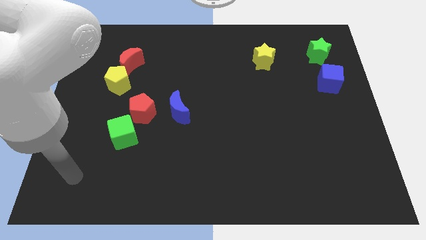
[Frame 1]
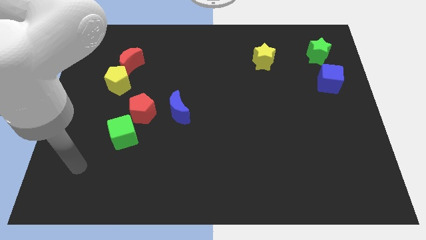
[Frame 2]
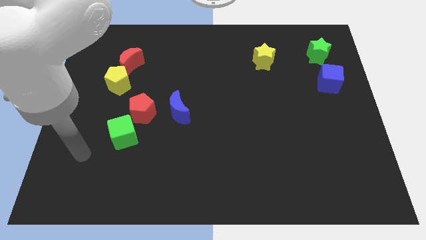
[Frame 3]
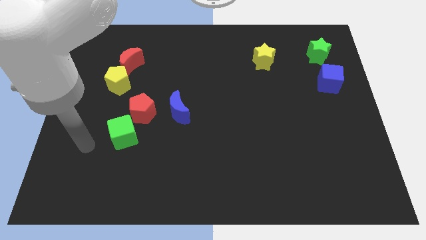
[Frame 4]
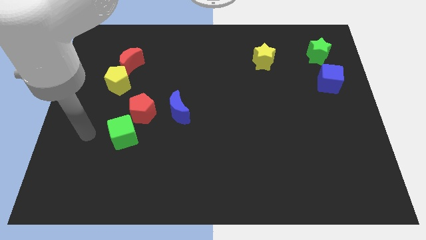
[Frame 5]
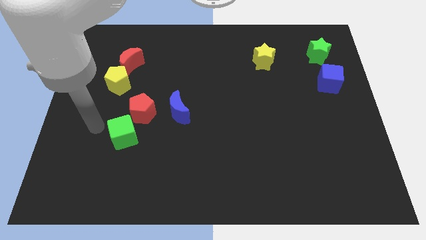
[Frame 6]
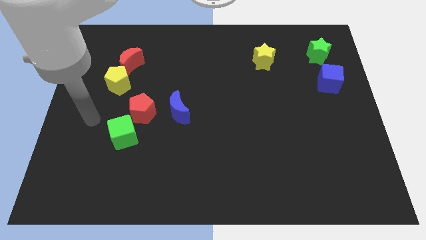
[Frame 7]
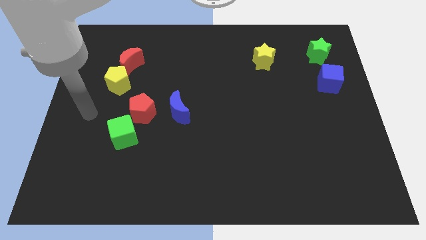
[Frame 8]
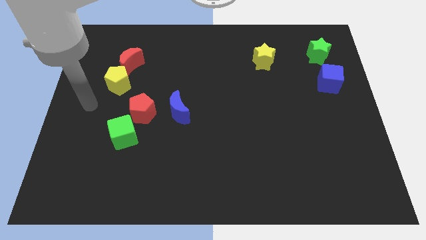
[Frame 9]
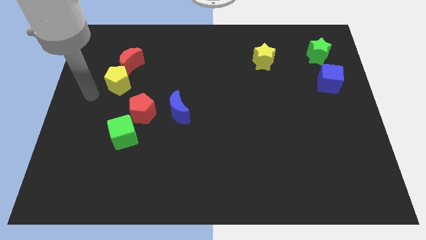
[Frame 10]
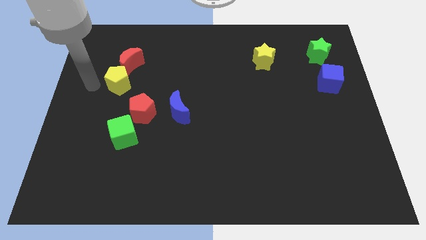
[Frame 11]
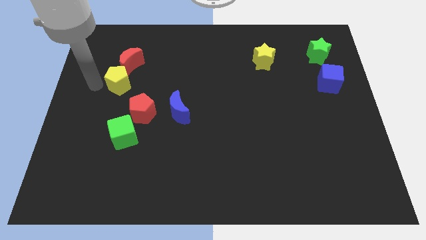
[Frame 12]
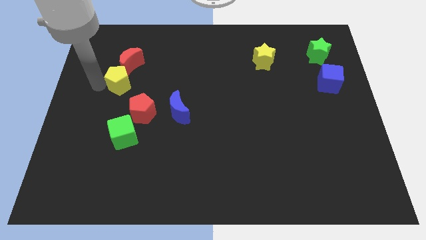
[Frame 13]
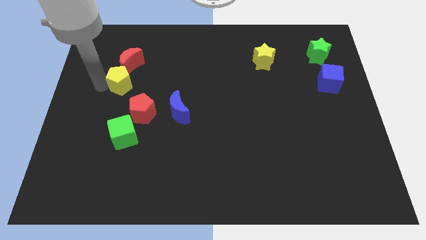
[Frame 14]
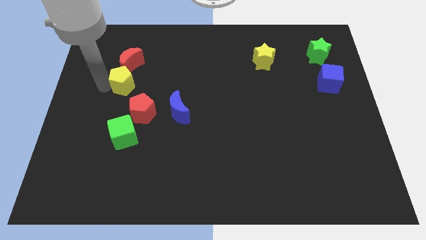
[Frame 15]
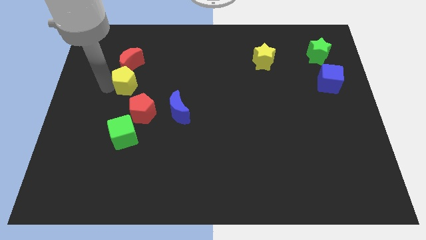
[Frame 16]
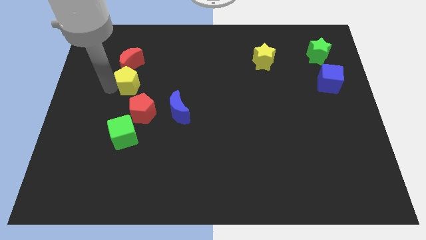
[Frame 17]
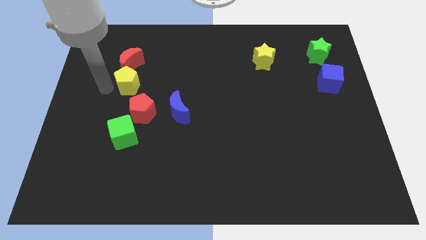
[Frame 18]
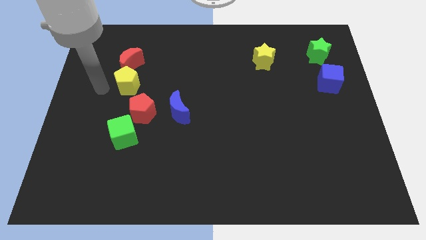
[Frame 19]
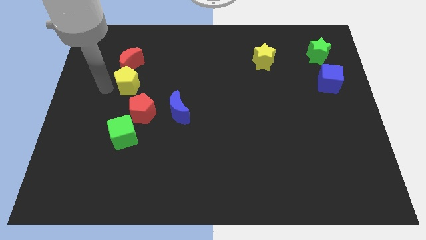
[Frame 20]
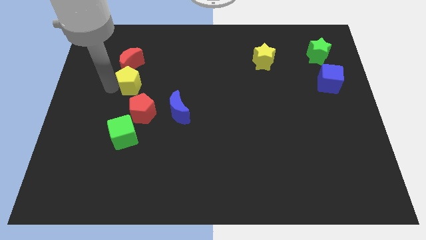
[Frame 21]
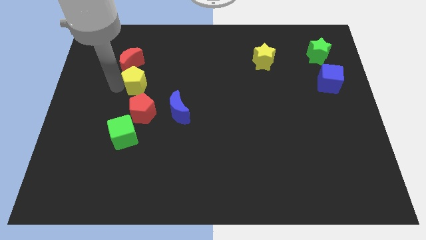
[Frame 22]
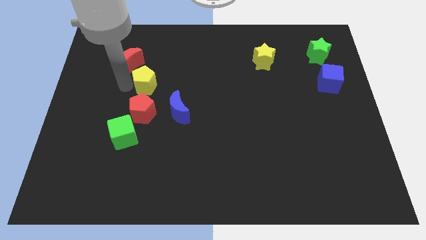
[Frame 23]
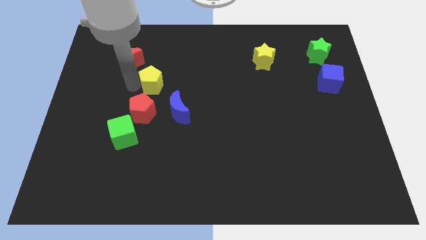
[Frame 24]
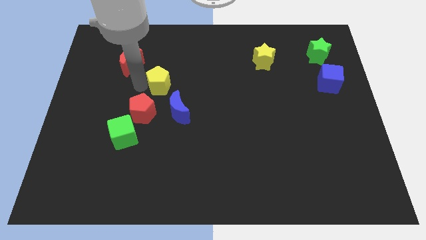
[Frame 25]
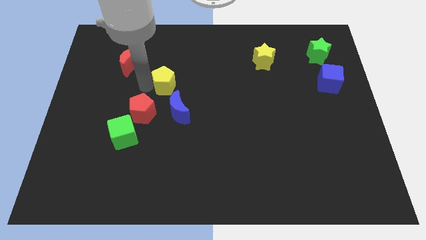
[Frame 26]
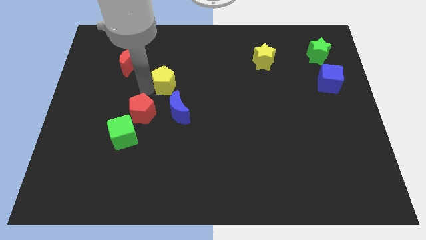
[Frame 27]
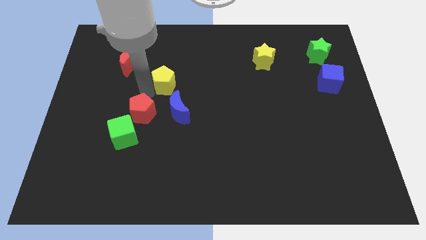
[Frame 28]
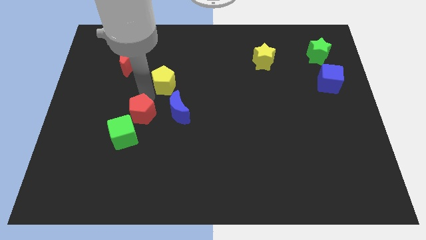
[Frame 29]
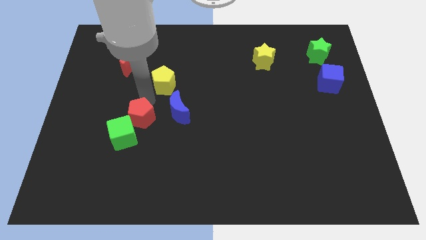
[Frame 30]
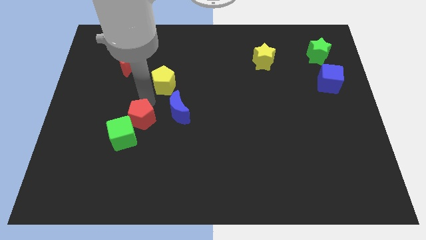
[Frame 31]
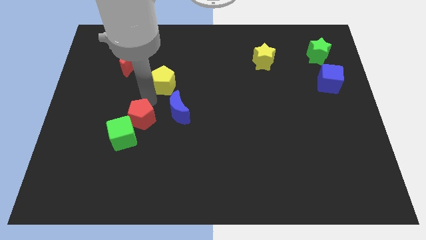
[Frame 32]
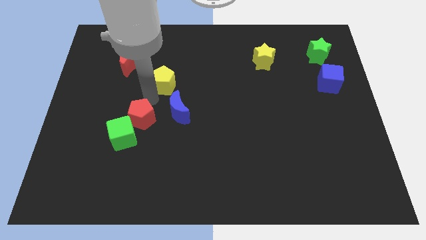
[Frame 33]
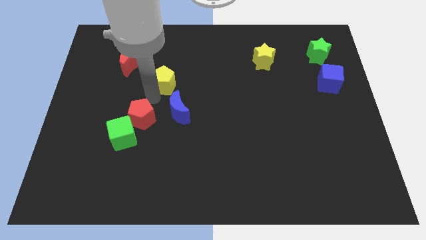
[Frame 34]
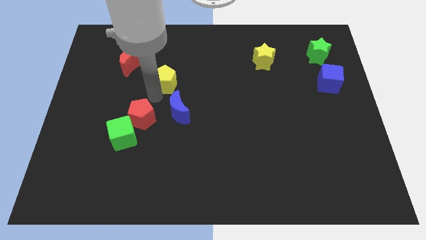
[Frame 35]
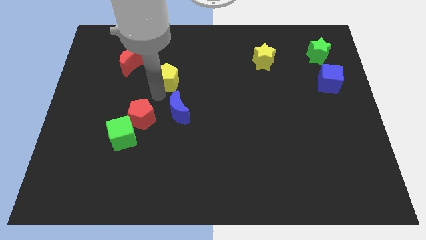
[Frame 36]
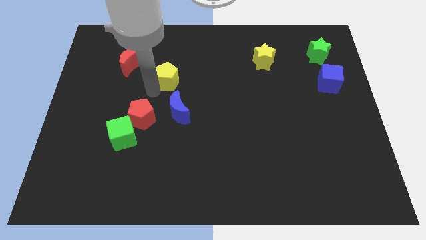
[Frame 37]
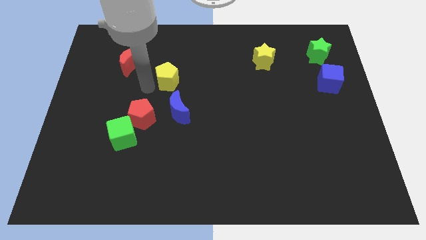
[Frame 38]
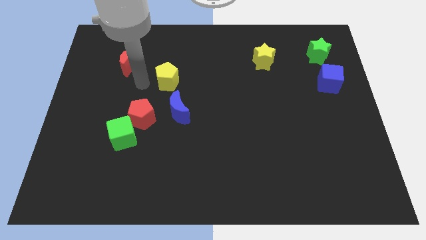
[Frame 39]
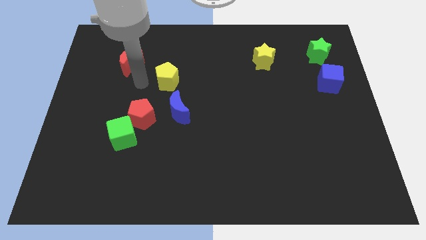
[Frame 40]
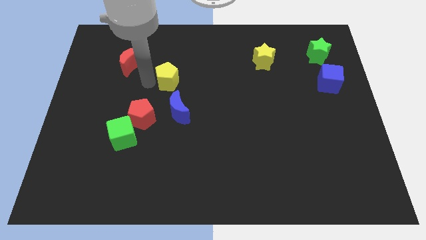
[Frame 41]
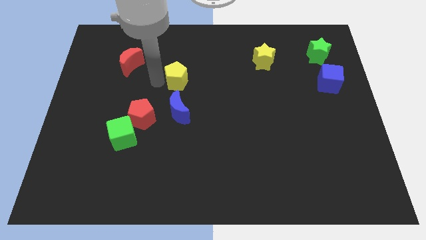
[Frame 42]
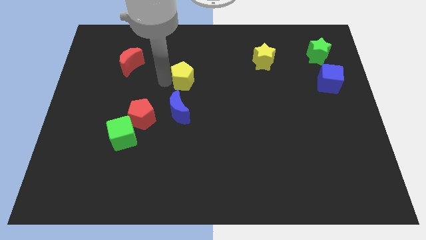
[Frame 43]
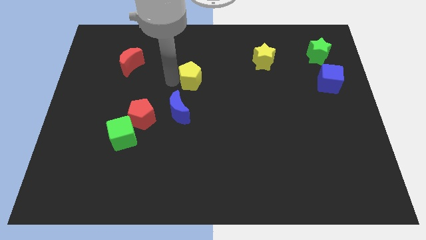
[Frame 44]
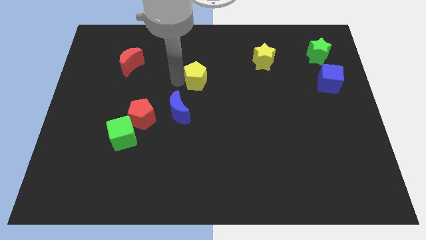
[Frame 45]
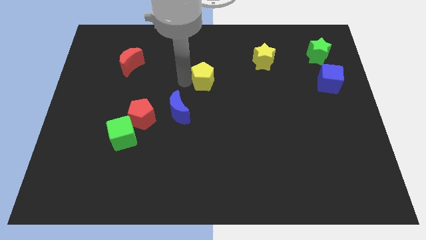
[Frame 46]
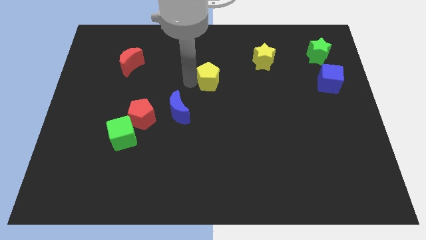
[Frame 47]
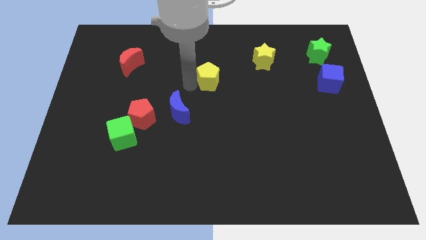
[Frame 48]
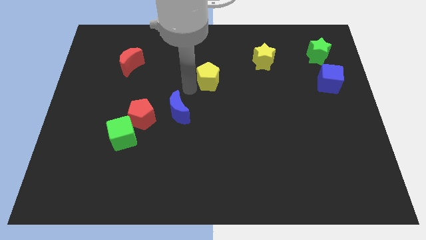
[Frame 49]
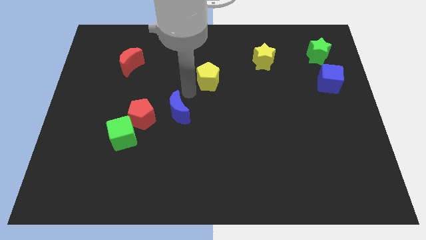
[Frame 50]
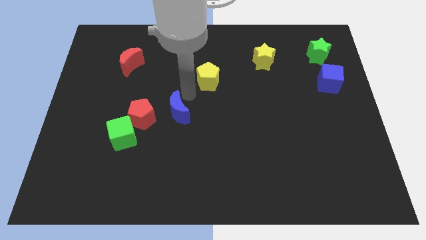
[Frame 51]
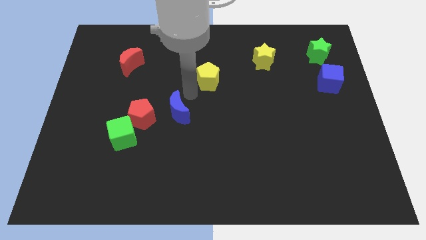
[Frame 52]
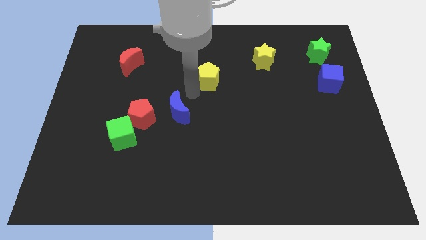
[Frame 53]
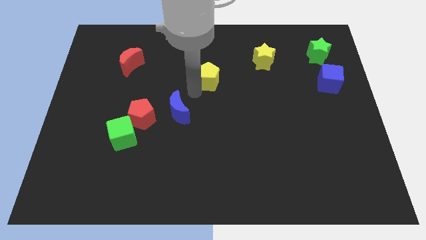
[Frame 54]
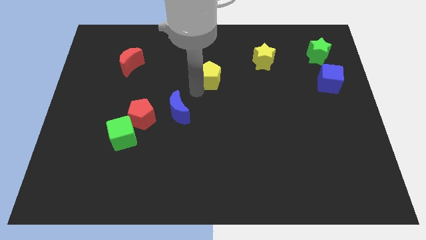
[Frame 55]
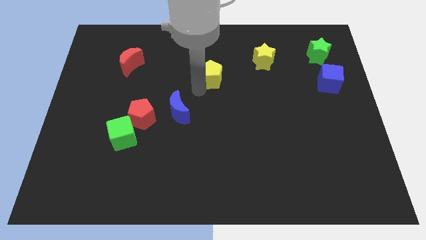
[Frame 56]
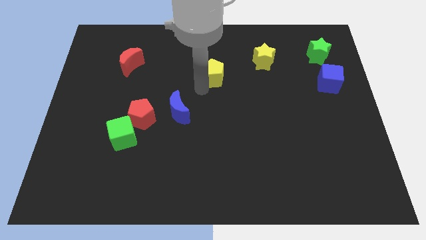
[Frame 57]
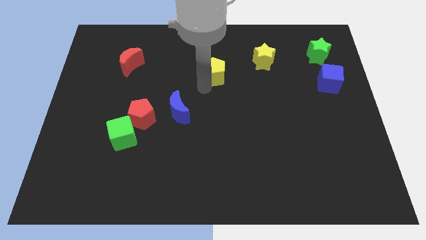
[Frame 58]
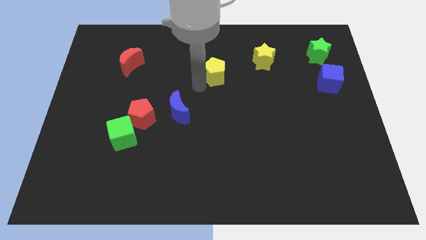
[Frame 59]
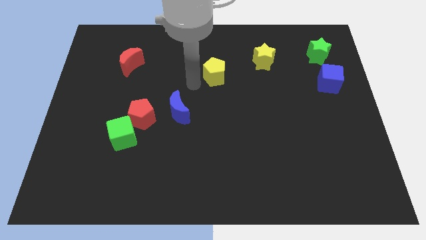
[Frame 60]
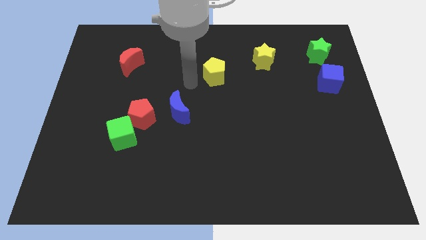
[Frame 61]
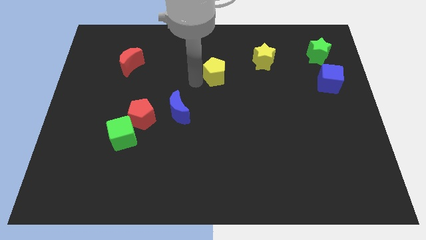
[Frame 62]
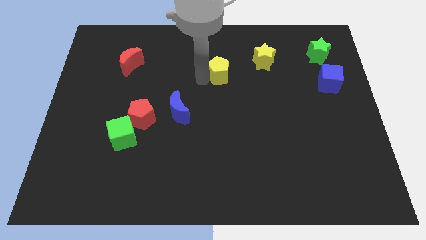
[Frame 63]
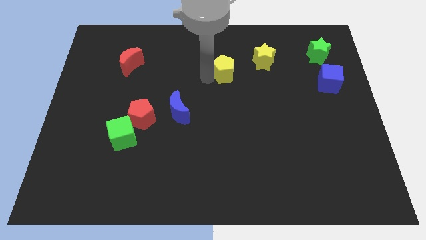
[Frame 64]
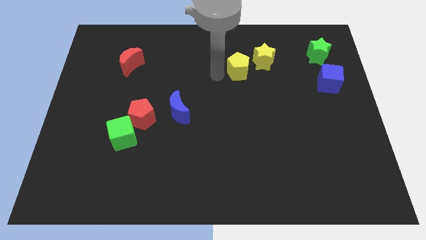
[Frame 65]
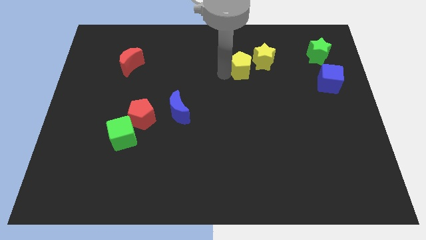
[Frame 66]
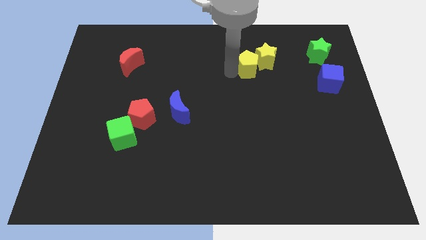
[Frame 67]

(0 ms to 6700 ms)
push the yellow pentagon next to the yellow star

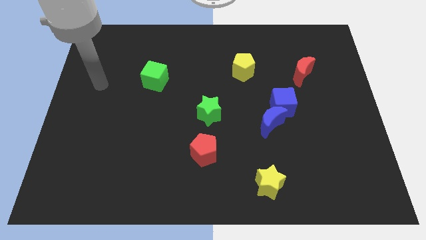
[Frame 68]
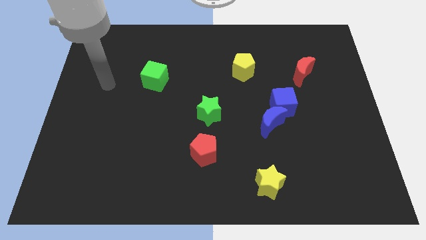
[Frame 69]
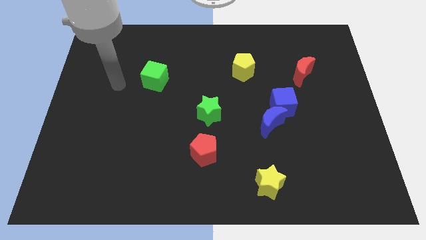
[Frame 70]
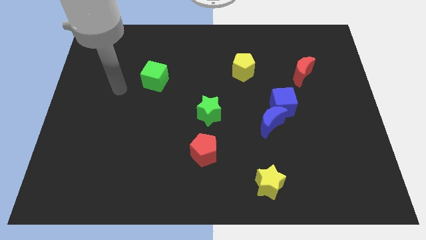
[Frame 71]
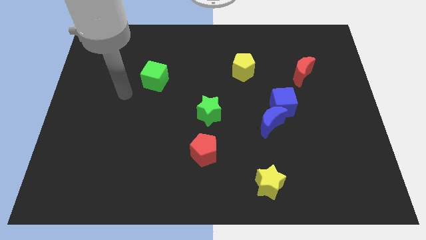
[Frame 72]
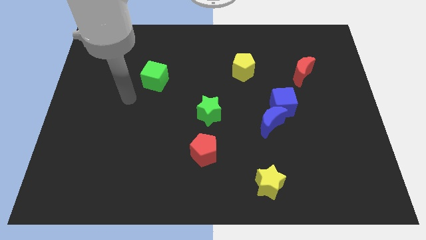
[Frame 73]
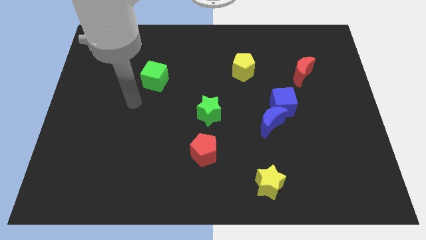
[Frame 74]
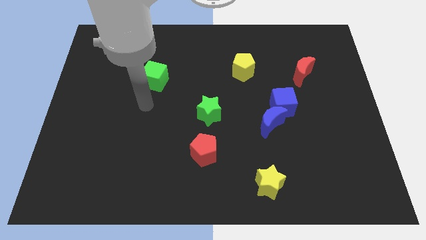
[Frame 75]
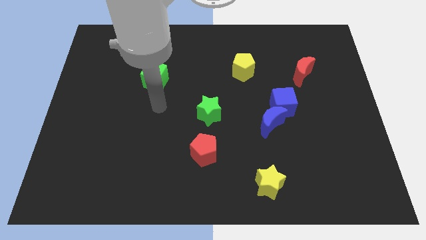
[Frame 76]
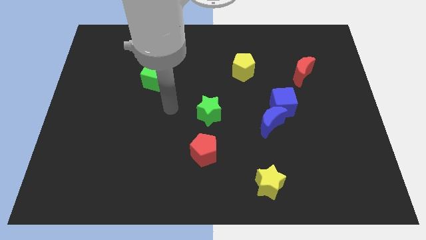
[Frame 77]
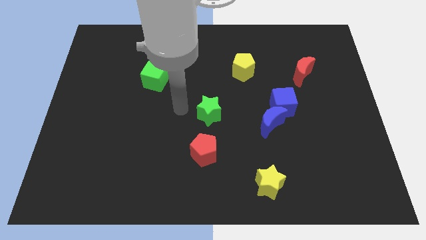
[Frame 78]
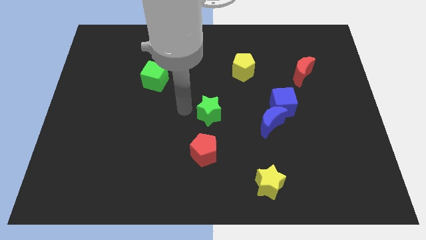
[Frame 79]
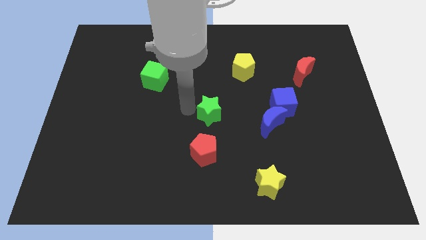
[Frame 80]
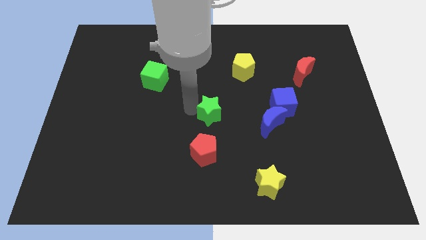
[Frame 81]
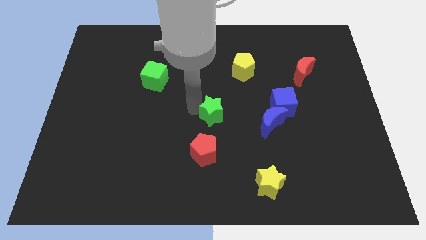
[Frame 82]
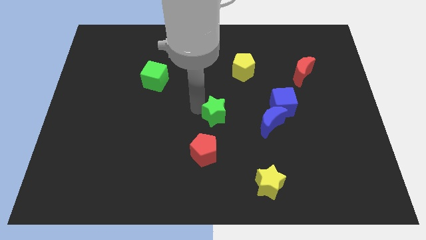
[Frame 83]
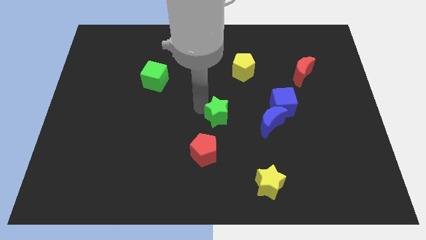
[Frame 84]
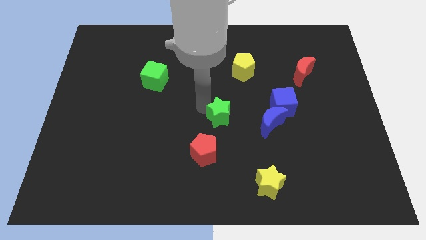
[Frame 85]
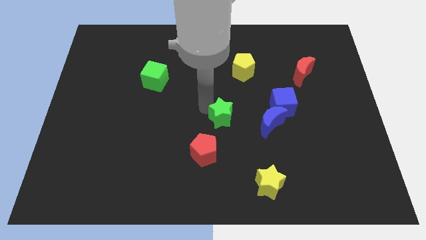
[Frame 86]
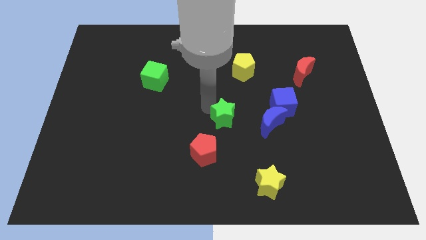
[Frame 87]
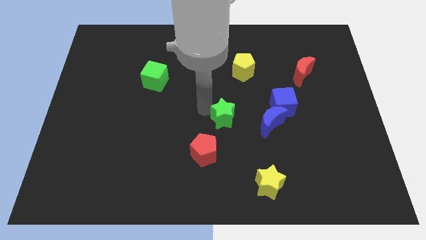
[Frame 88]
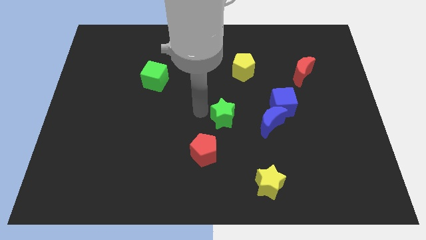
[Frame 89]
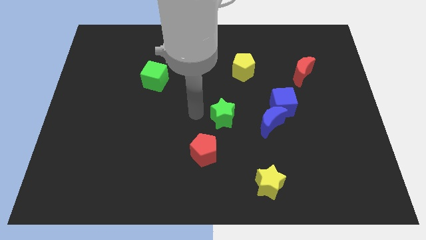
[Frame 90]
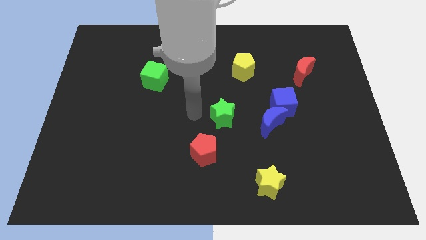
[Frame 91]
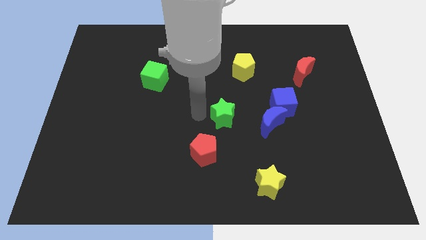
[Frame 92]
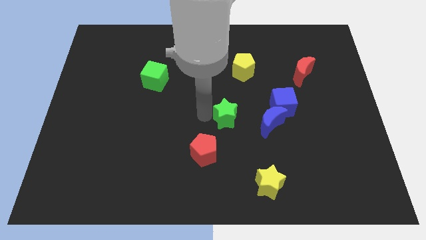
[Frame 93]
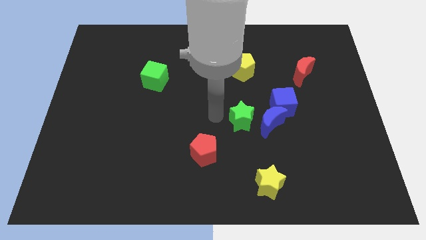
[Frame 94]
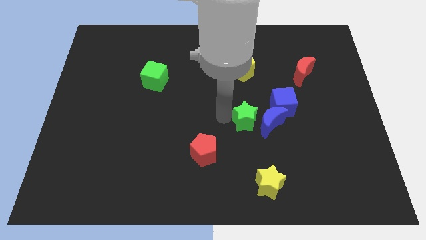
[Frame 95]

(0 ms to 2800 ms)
move the green star close to the blue moon
